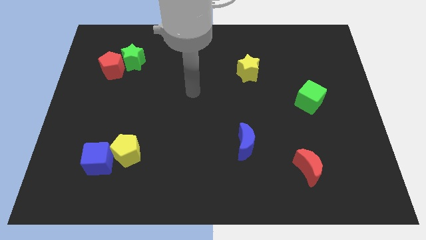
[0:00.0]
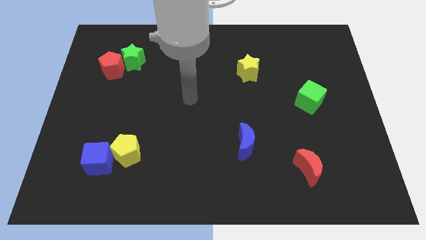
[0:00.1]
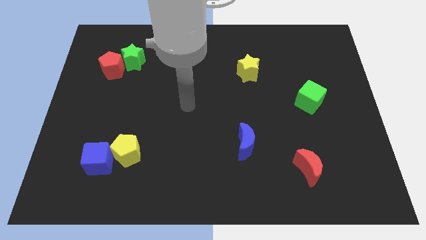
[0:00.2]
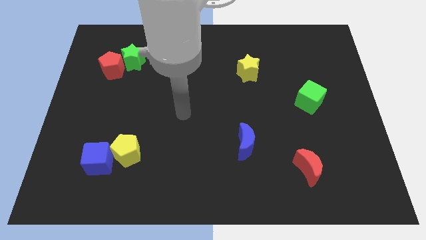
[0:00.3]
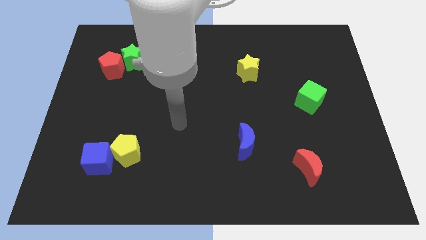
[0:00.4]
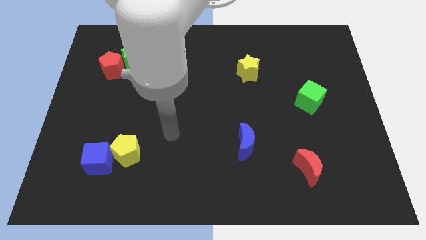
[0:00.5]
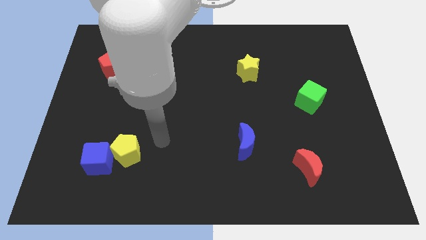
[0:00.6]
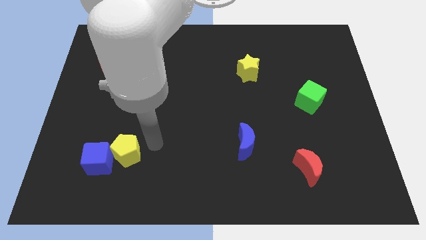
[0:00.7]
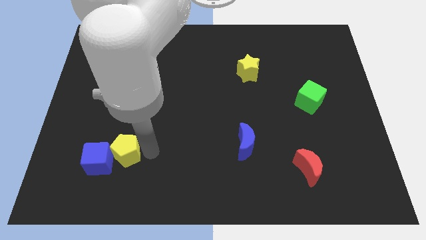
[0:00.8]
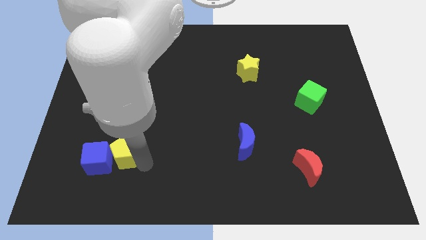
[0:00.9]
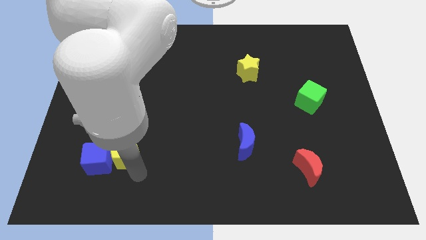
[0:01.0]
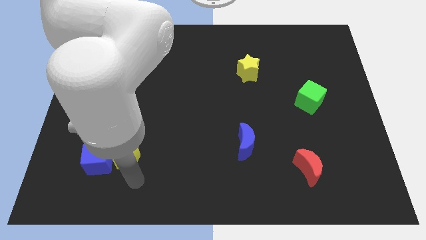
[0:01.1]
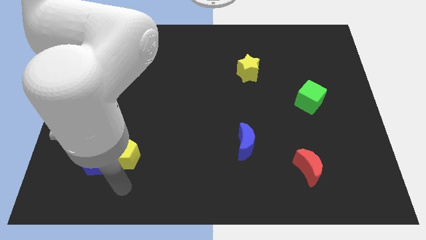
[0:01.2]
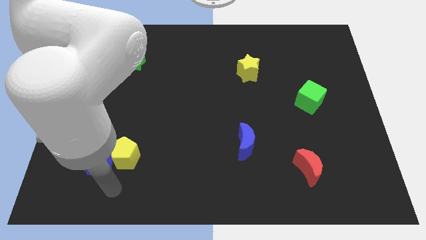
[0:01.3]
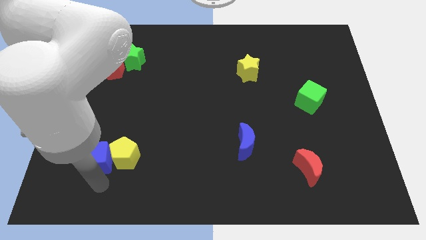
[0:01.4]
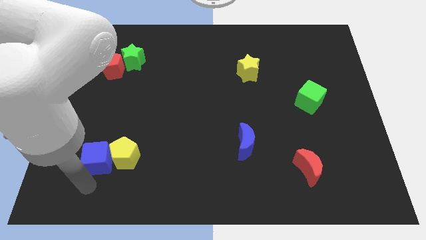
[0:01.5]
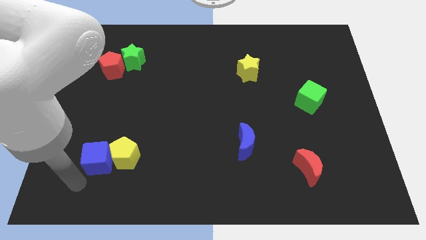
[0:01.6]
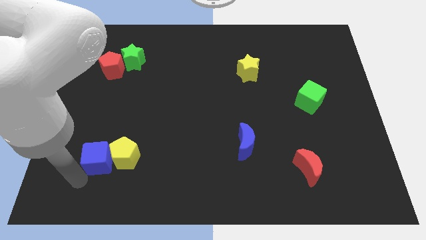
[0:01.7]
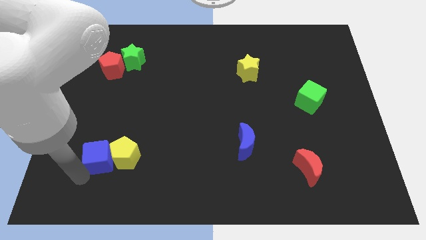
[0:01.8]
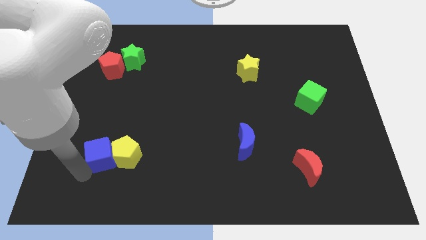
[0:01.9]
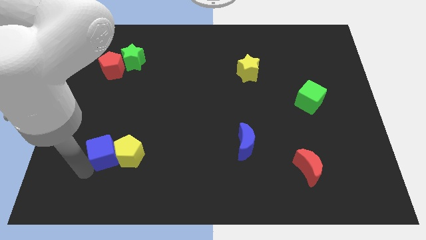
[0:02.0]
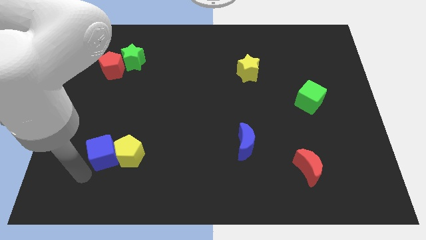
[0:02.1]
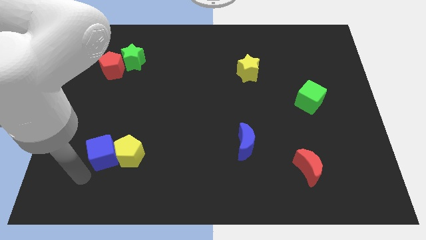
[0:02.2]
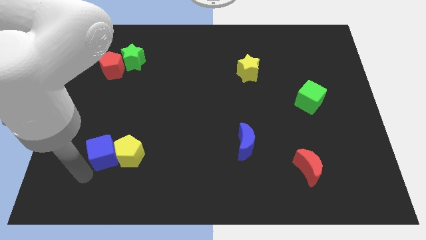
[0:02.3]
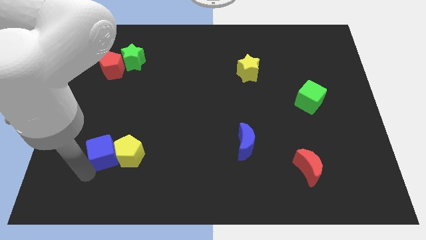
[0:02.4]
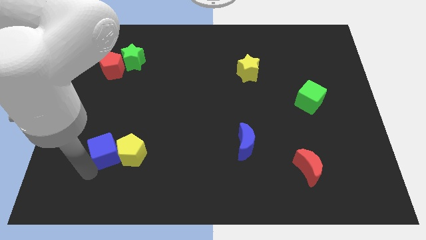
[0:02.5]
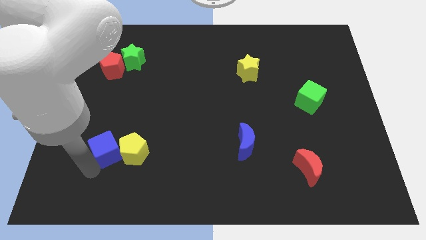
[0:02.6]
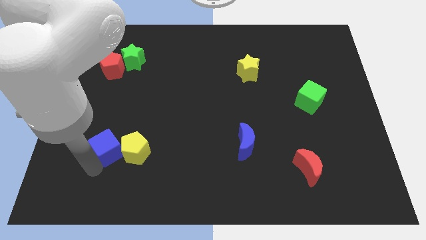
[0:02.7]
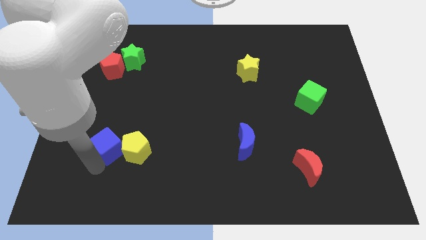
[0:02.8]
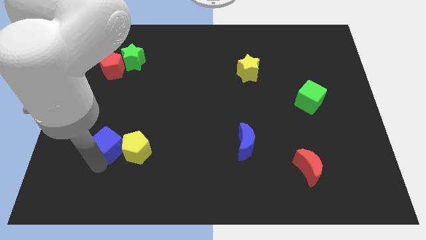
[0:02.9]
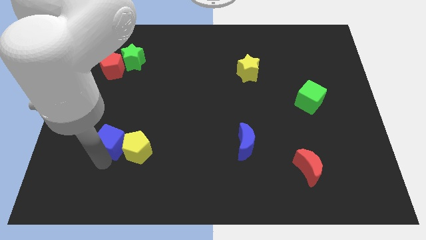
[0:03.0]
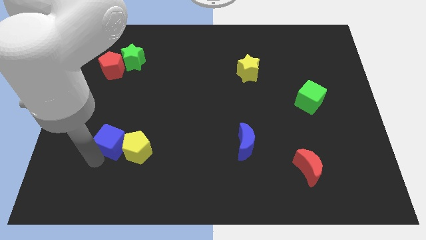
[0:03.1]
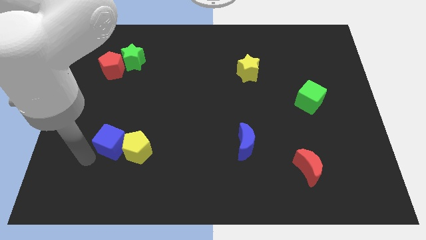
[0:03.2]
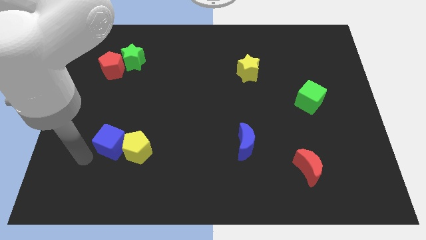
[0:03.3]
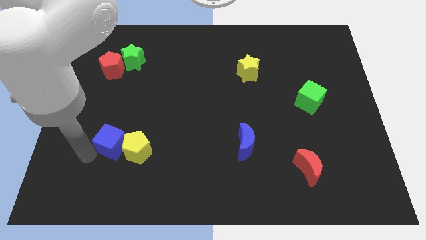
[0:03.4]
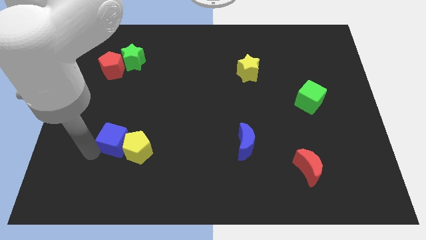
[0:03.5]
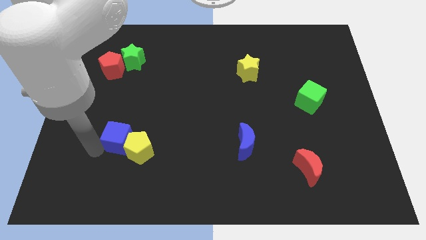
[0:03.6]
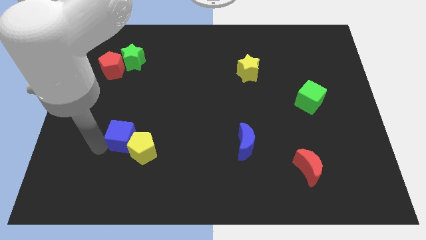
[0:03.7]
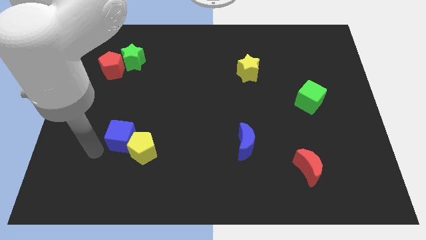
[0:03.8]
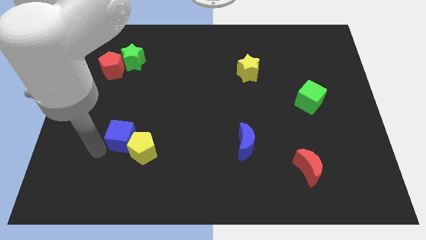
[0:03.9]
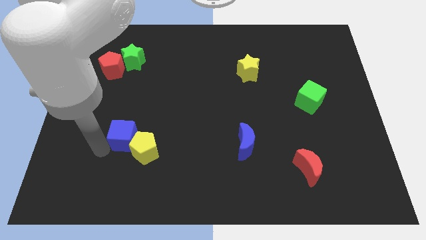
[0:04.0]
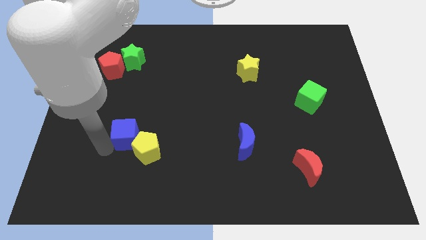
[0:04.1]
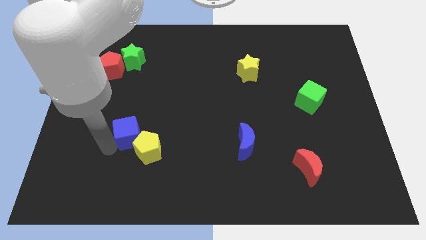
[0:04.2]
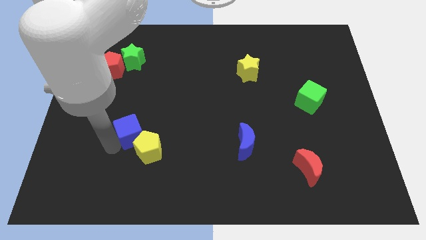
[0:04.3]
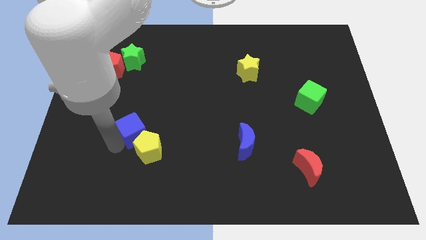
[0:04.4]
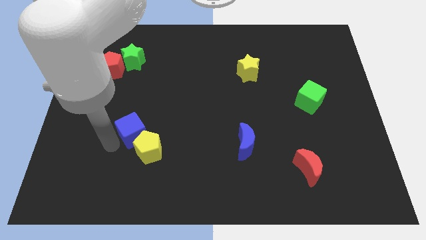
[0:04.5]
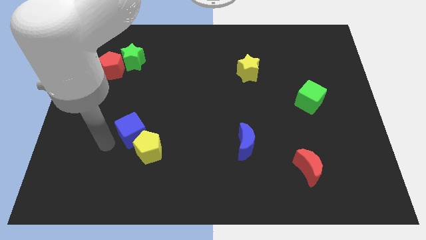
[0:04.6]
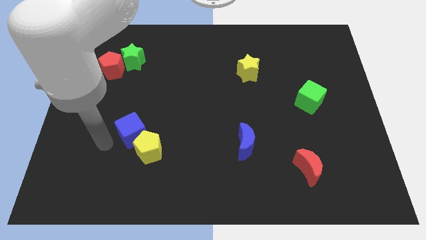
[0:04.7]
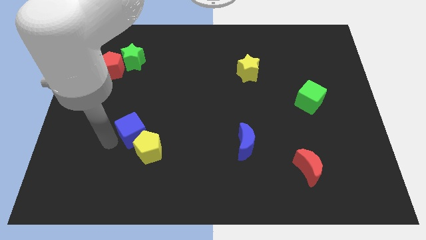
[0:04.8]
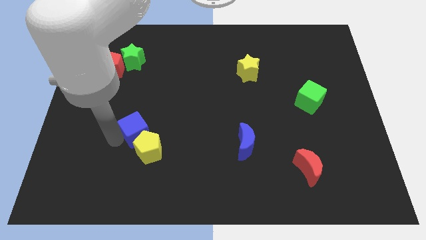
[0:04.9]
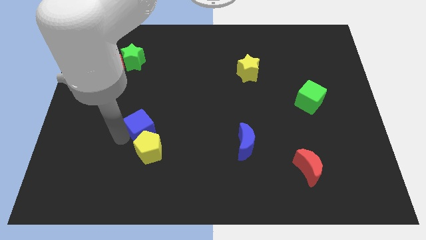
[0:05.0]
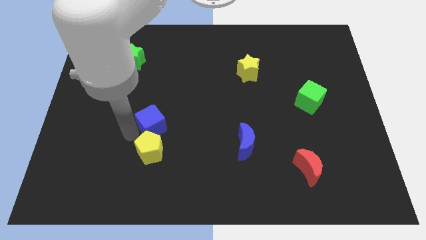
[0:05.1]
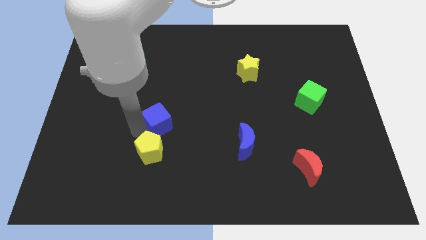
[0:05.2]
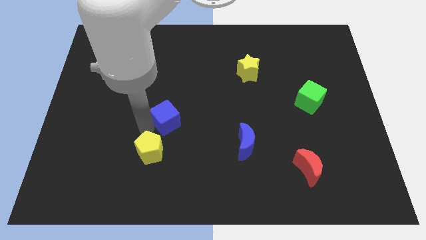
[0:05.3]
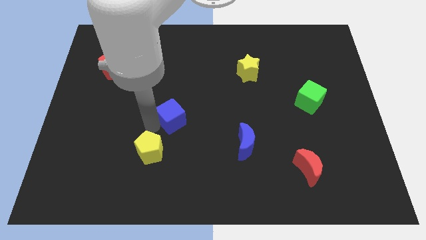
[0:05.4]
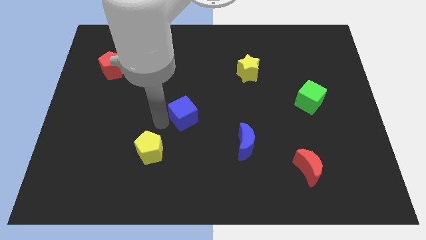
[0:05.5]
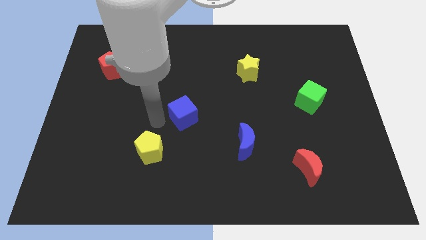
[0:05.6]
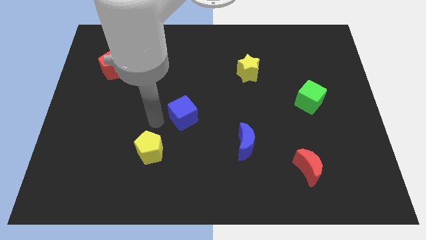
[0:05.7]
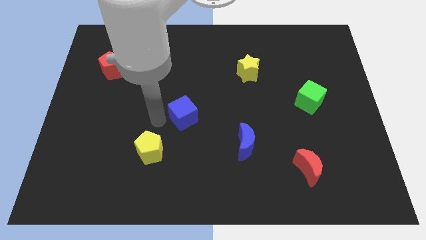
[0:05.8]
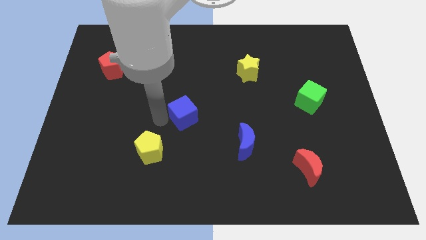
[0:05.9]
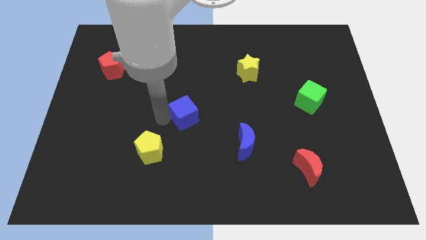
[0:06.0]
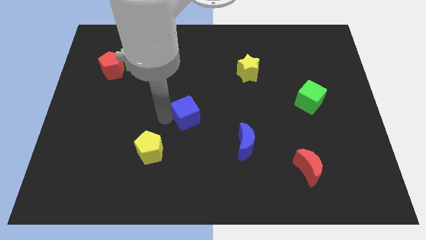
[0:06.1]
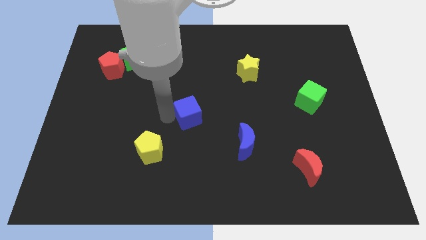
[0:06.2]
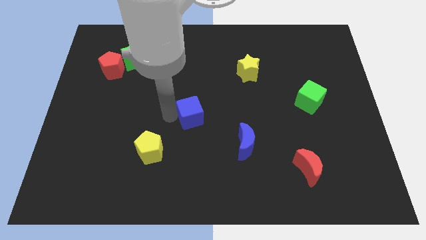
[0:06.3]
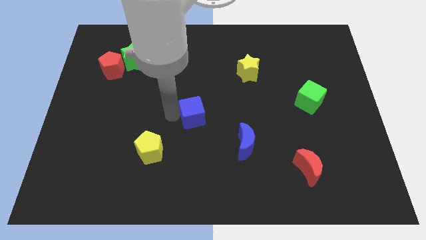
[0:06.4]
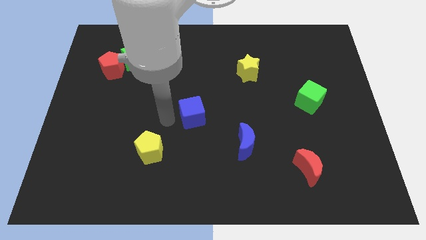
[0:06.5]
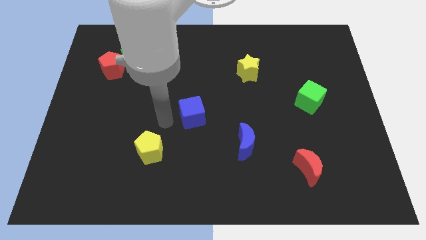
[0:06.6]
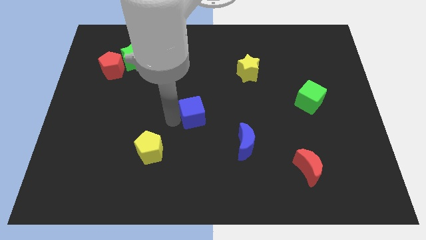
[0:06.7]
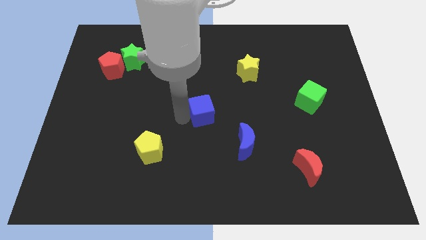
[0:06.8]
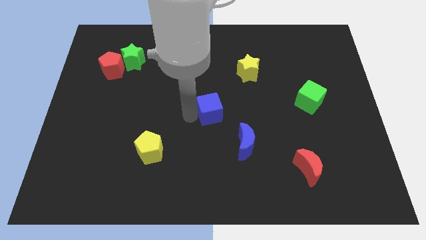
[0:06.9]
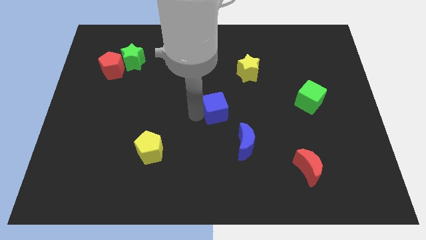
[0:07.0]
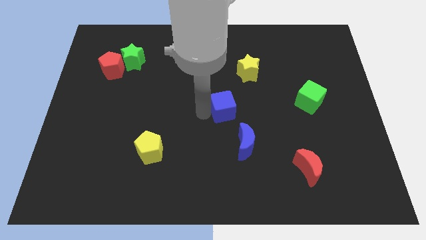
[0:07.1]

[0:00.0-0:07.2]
put the blue cube above the blue moon
